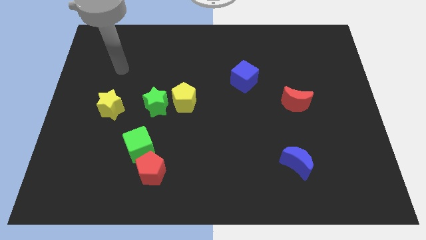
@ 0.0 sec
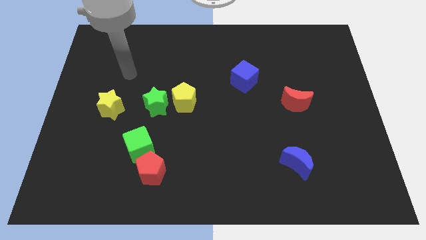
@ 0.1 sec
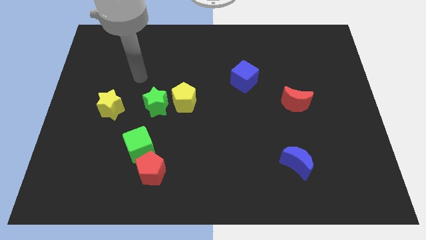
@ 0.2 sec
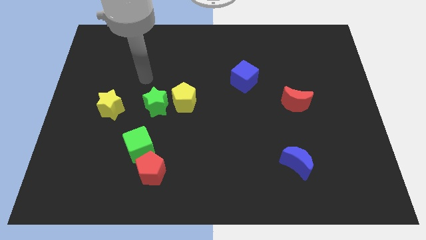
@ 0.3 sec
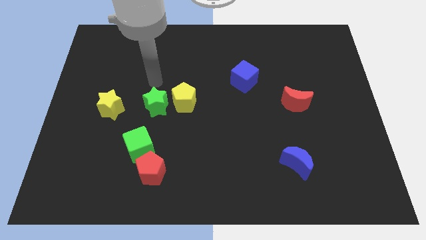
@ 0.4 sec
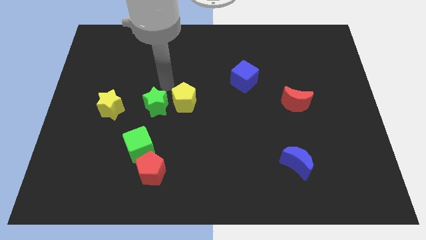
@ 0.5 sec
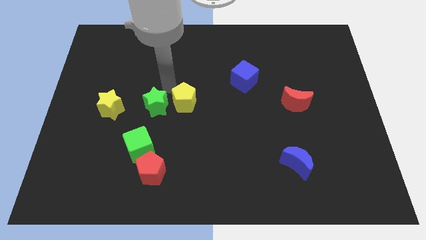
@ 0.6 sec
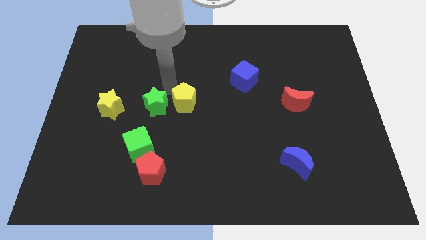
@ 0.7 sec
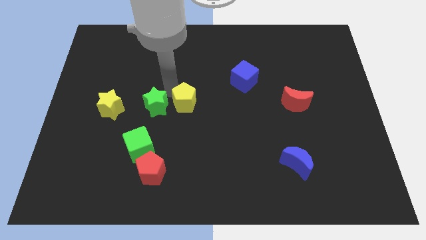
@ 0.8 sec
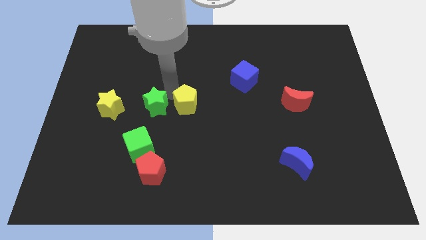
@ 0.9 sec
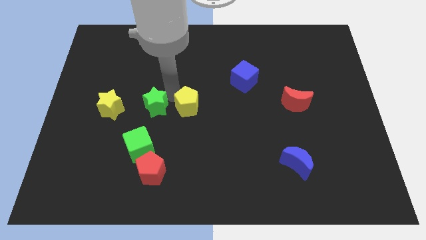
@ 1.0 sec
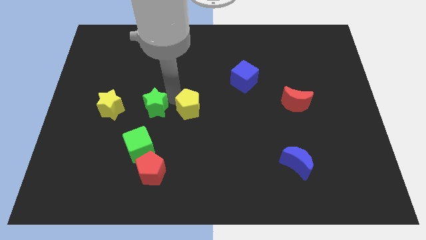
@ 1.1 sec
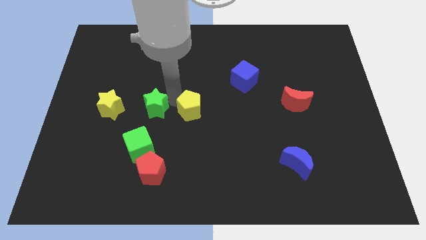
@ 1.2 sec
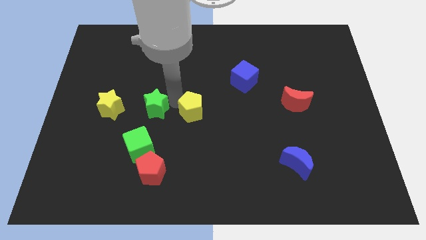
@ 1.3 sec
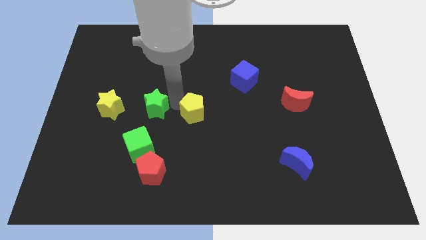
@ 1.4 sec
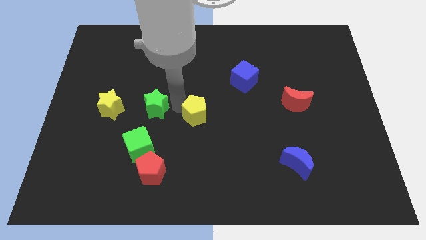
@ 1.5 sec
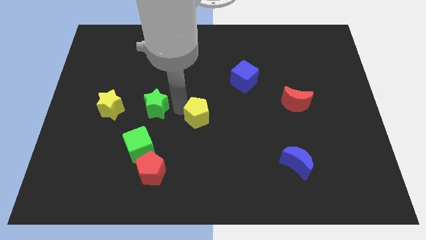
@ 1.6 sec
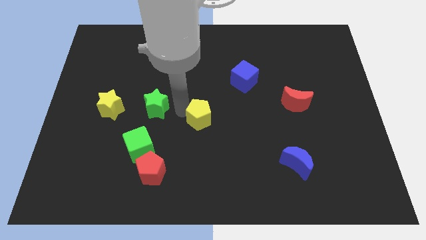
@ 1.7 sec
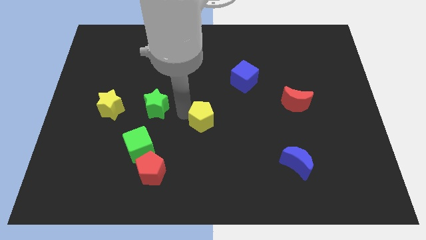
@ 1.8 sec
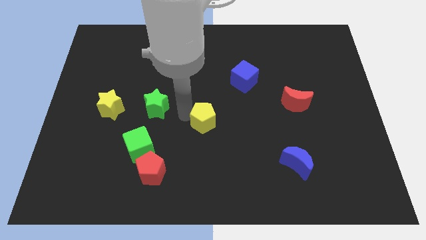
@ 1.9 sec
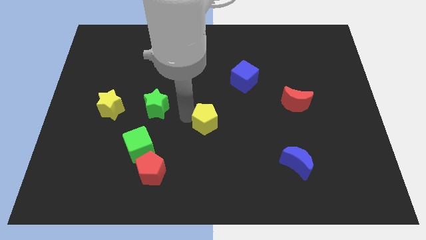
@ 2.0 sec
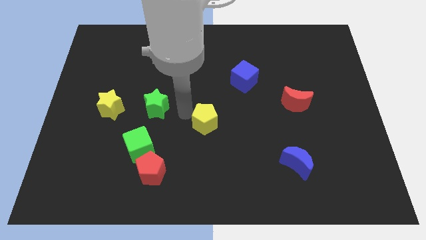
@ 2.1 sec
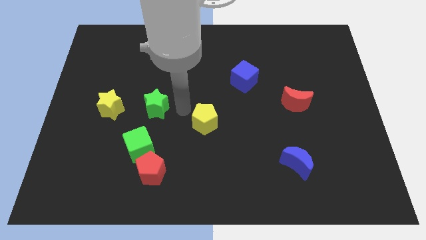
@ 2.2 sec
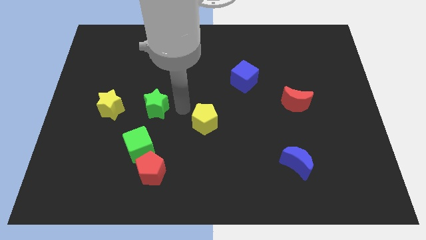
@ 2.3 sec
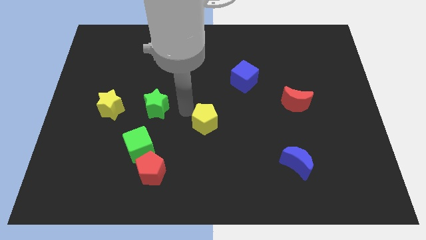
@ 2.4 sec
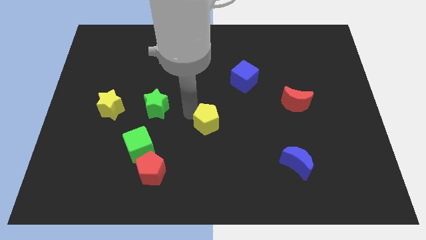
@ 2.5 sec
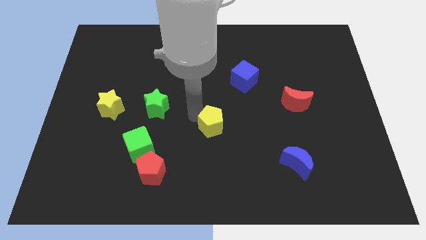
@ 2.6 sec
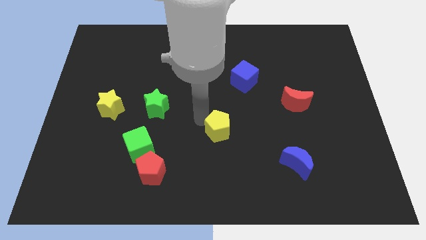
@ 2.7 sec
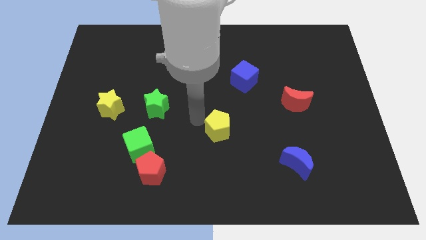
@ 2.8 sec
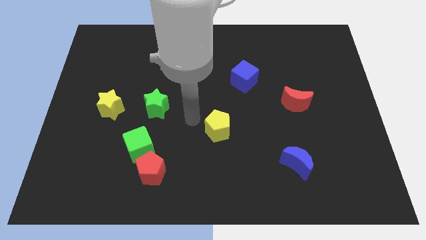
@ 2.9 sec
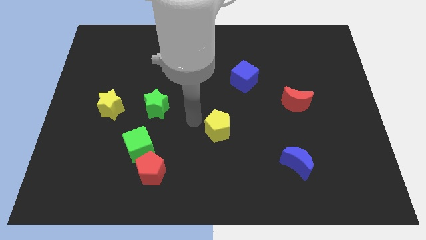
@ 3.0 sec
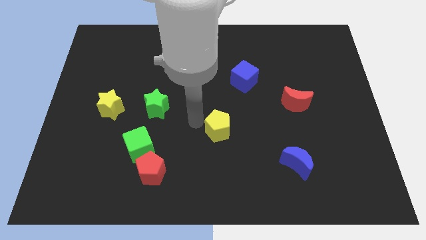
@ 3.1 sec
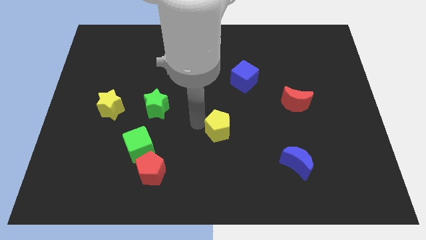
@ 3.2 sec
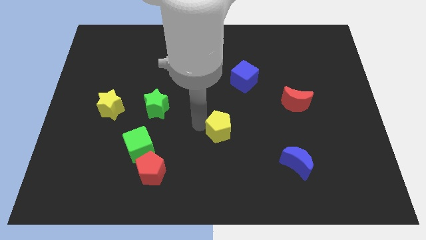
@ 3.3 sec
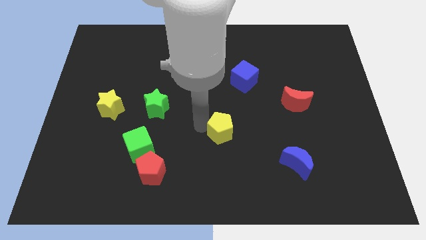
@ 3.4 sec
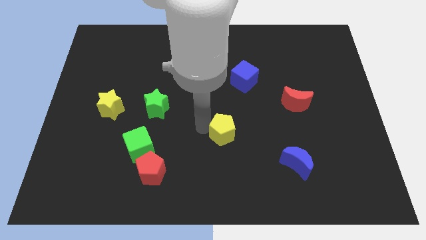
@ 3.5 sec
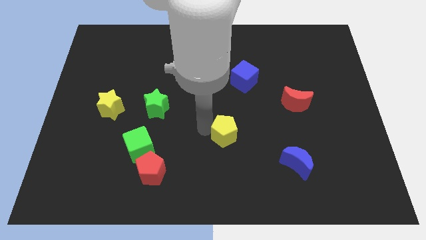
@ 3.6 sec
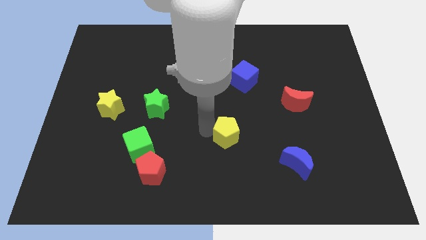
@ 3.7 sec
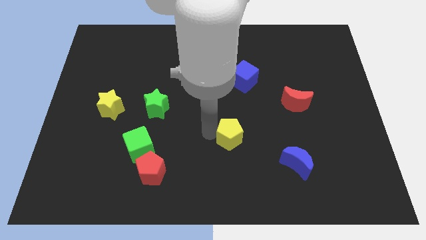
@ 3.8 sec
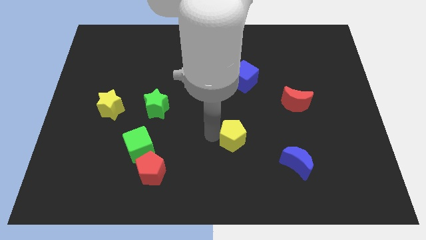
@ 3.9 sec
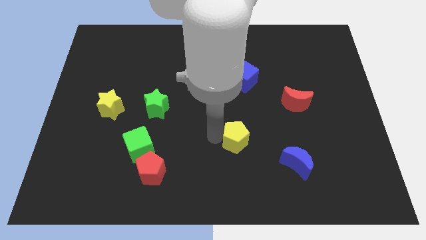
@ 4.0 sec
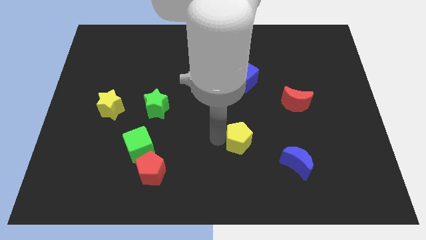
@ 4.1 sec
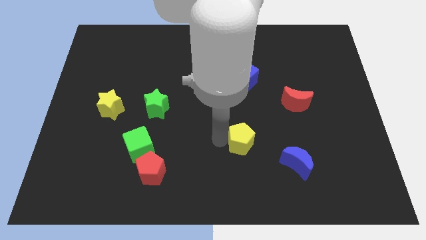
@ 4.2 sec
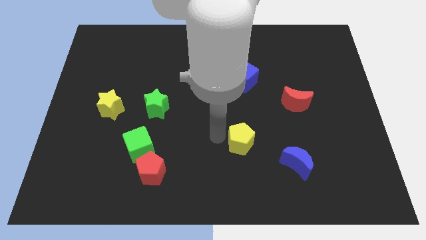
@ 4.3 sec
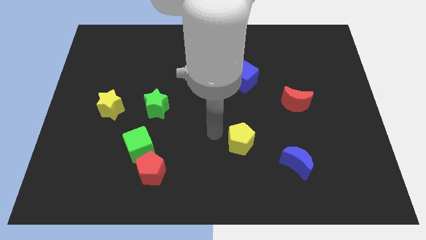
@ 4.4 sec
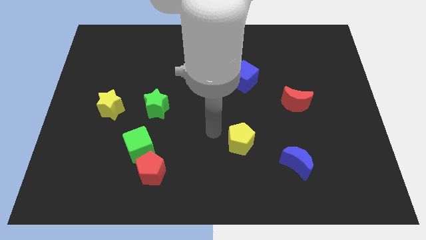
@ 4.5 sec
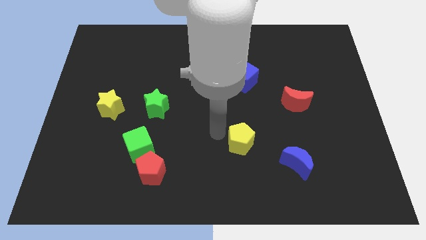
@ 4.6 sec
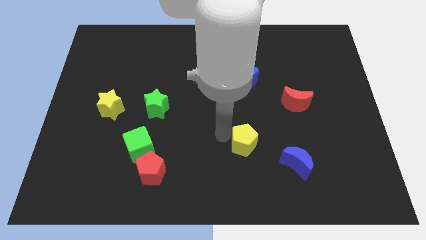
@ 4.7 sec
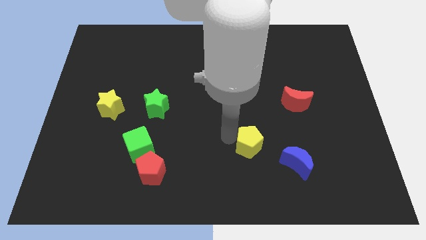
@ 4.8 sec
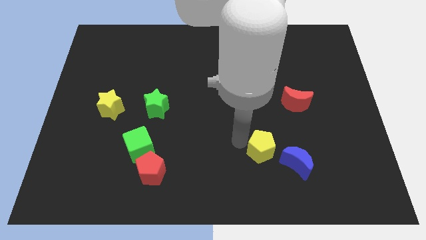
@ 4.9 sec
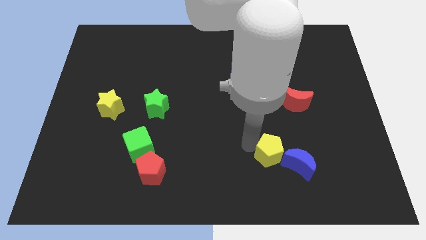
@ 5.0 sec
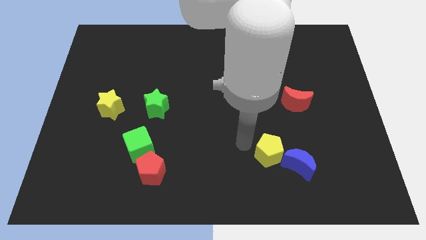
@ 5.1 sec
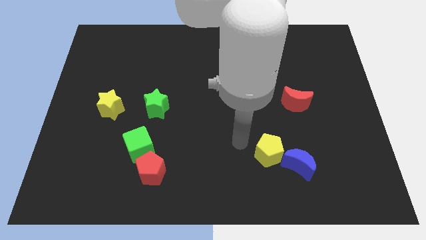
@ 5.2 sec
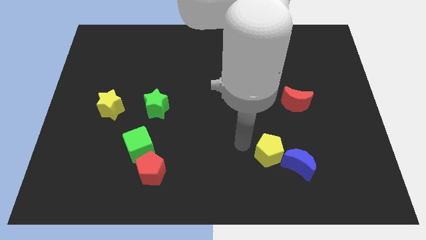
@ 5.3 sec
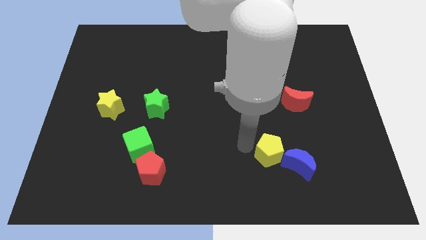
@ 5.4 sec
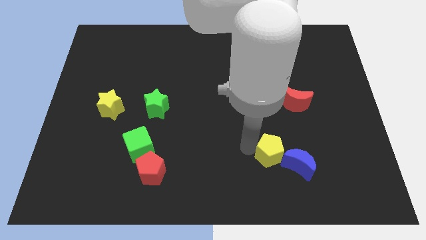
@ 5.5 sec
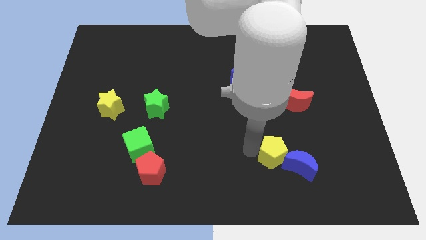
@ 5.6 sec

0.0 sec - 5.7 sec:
move the yellow pentagon to the blue moon

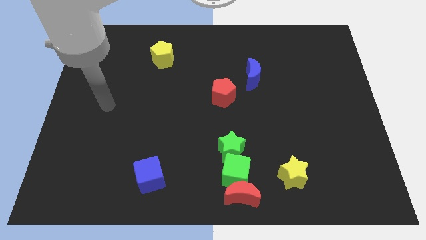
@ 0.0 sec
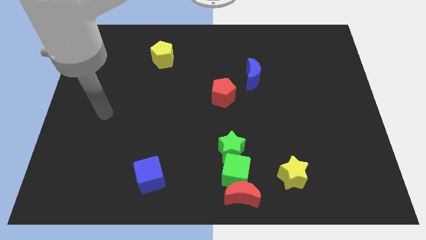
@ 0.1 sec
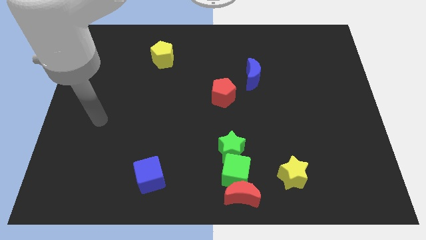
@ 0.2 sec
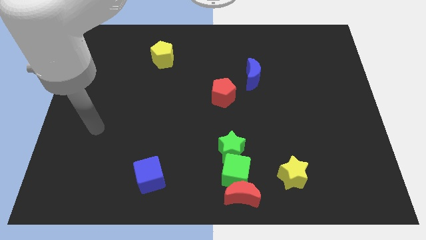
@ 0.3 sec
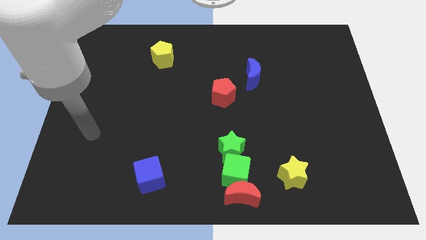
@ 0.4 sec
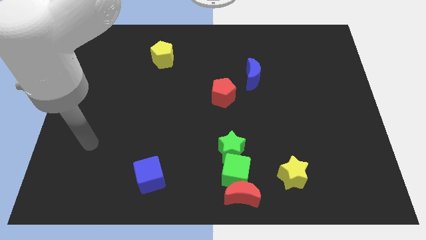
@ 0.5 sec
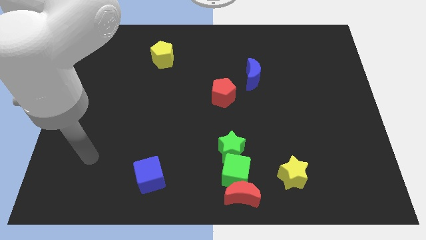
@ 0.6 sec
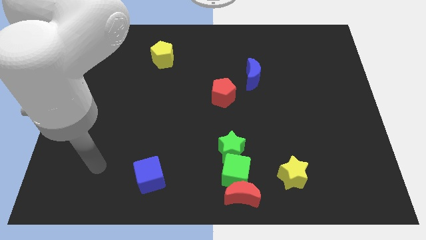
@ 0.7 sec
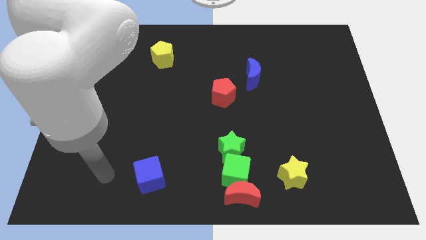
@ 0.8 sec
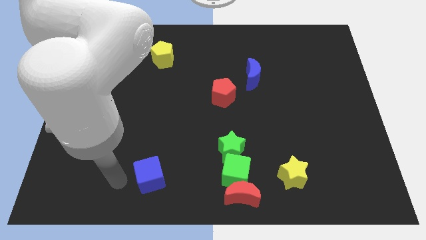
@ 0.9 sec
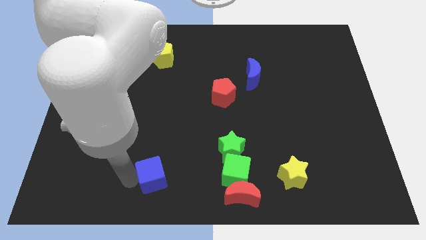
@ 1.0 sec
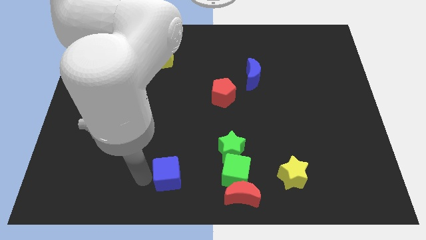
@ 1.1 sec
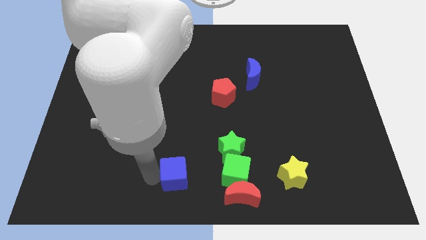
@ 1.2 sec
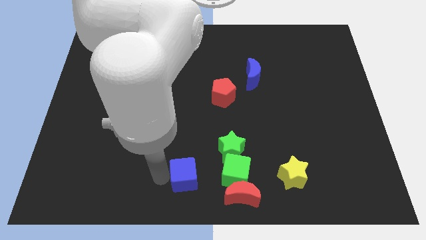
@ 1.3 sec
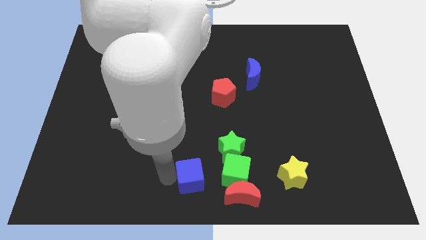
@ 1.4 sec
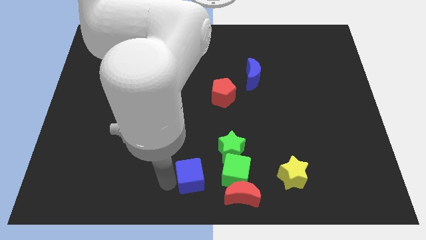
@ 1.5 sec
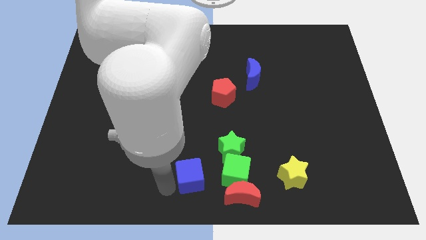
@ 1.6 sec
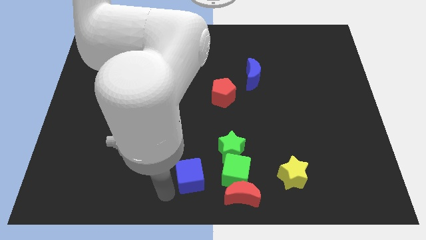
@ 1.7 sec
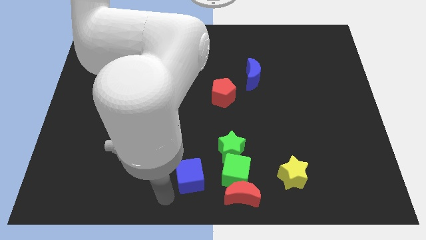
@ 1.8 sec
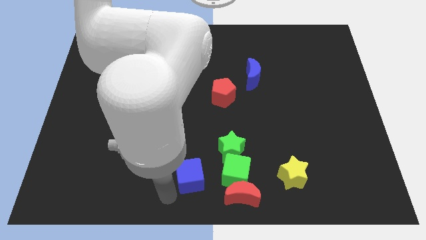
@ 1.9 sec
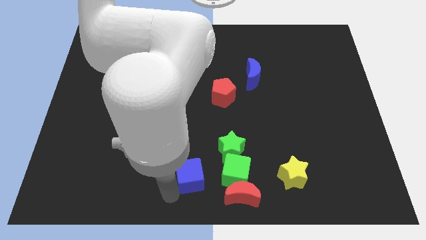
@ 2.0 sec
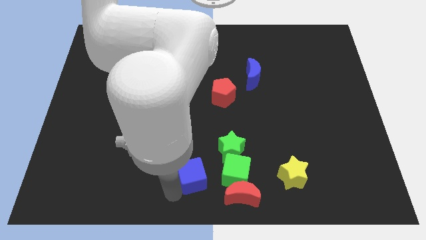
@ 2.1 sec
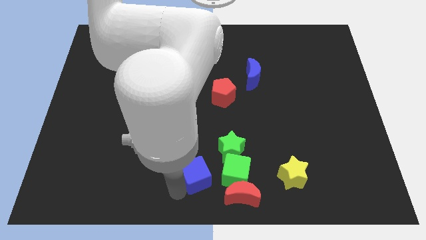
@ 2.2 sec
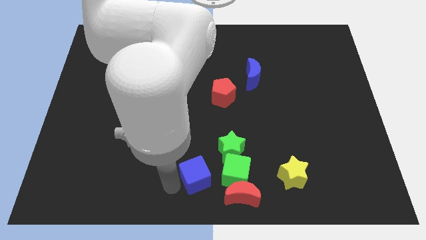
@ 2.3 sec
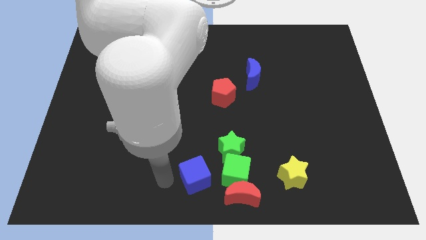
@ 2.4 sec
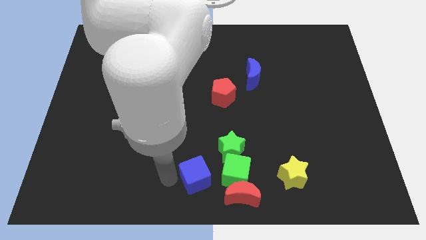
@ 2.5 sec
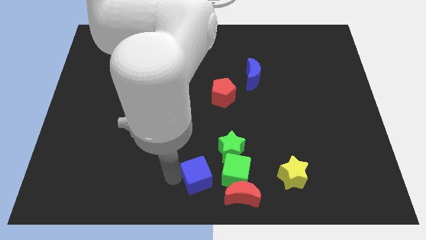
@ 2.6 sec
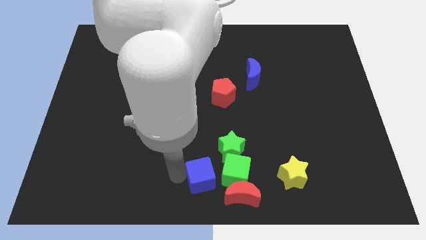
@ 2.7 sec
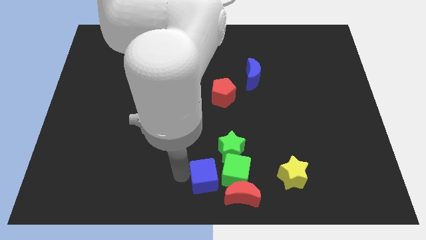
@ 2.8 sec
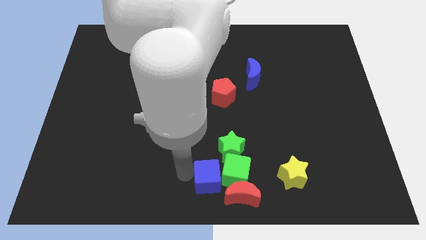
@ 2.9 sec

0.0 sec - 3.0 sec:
push the blue cube towards the green cube
